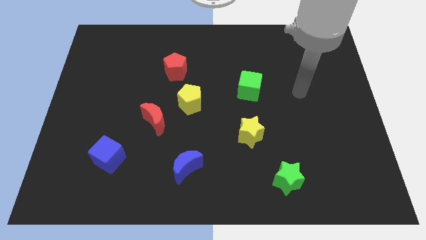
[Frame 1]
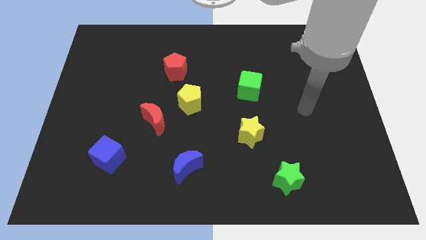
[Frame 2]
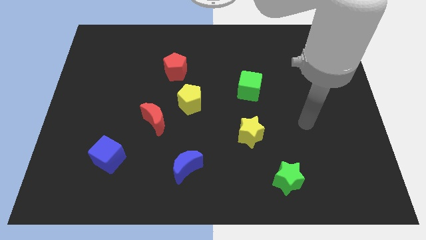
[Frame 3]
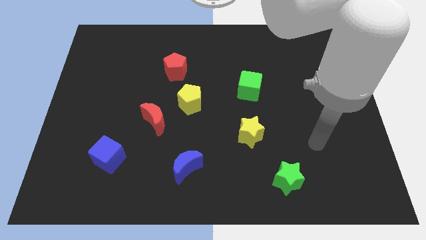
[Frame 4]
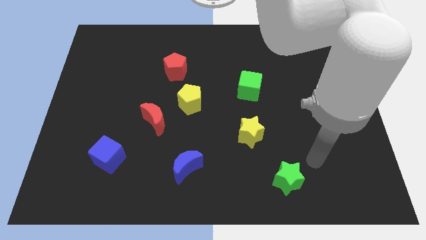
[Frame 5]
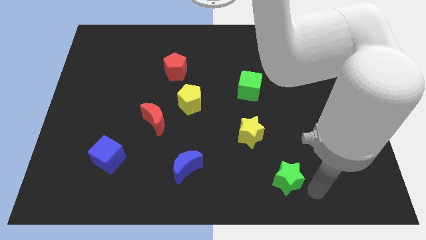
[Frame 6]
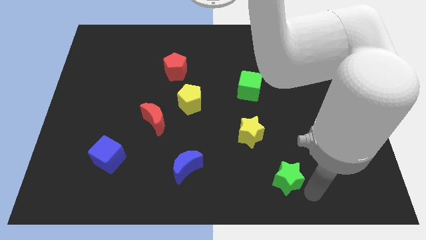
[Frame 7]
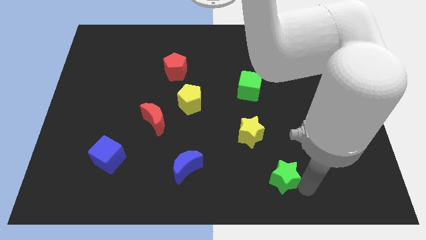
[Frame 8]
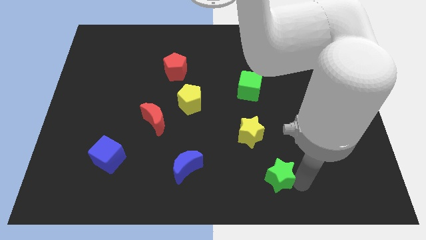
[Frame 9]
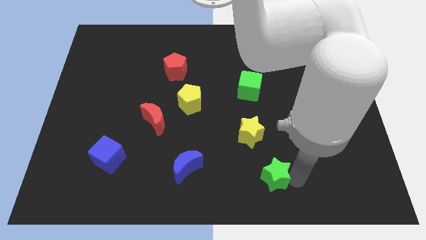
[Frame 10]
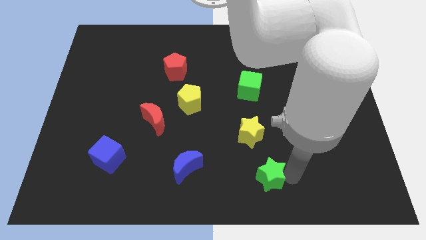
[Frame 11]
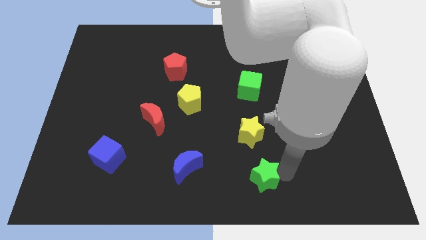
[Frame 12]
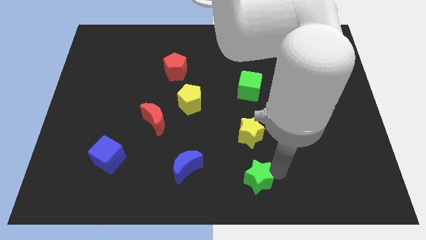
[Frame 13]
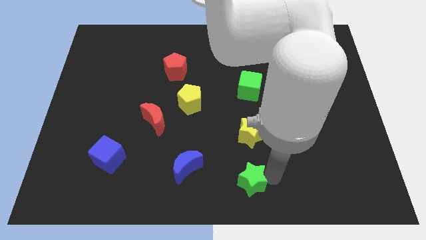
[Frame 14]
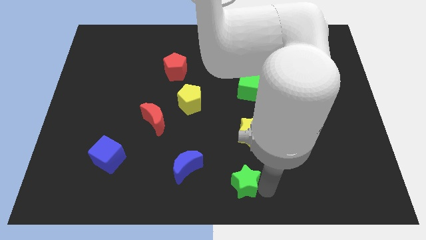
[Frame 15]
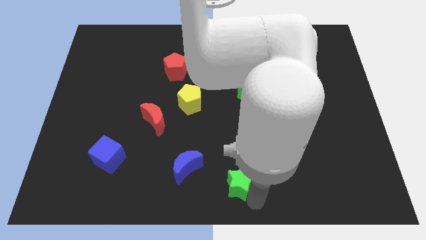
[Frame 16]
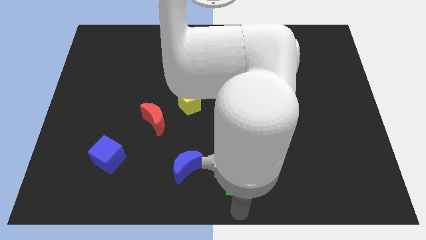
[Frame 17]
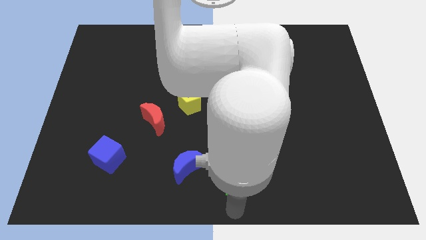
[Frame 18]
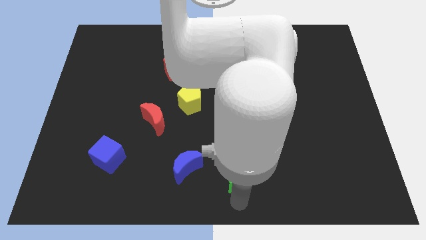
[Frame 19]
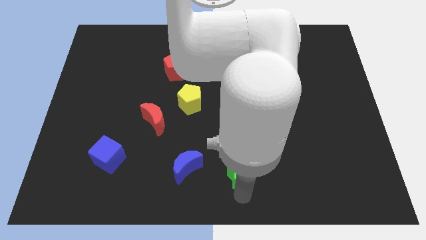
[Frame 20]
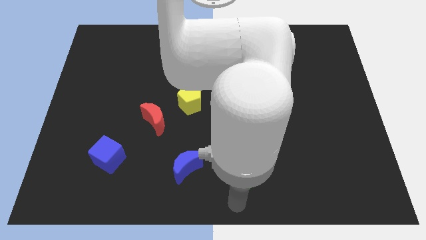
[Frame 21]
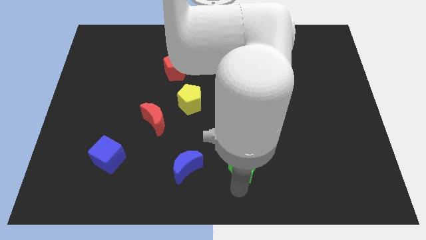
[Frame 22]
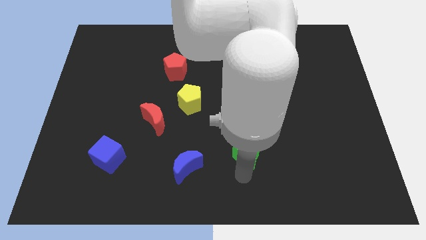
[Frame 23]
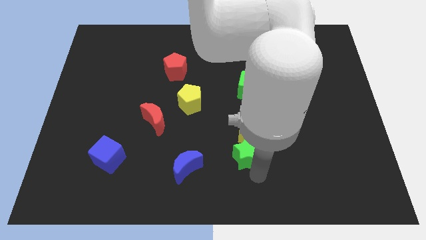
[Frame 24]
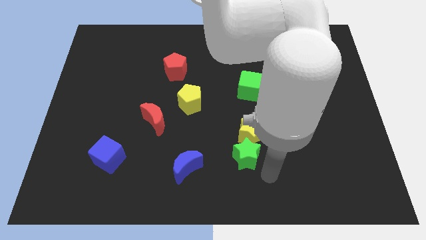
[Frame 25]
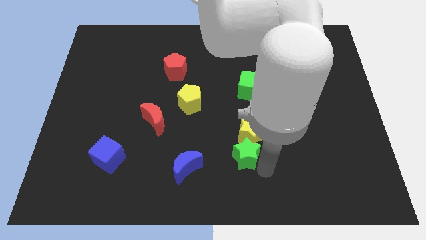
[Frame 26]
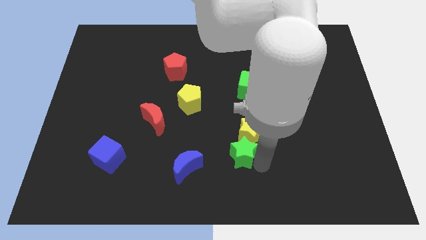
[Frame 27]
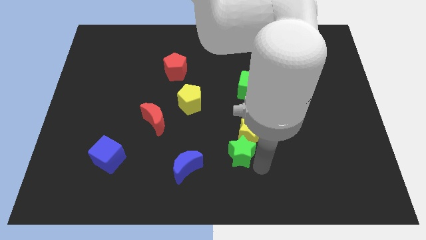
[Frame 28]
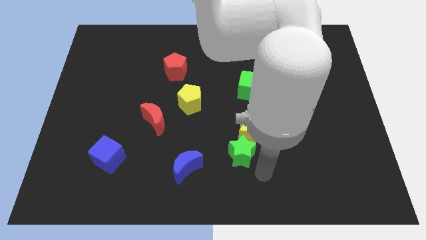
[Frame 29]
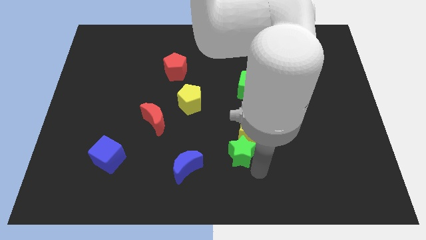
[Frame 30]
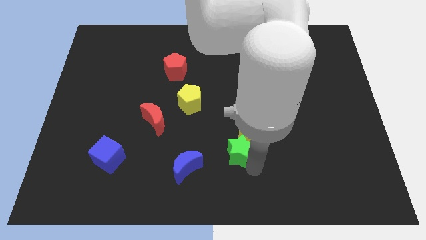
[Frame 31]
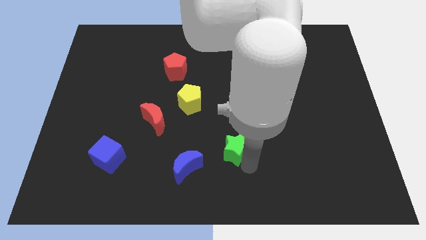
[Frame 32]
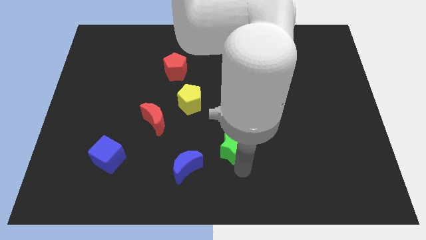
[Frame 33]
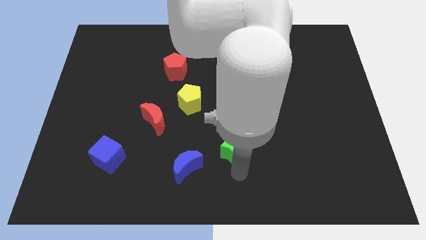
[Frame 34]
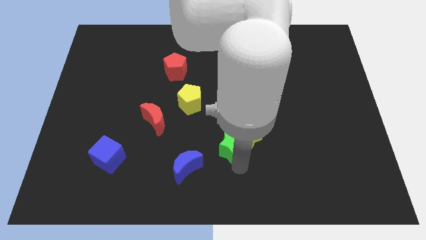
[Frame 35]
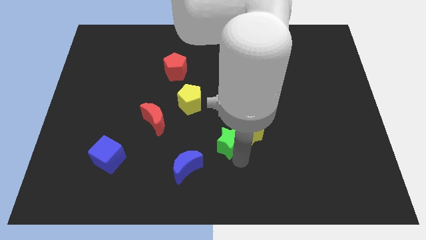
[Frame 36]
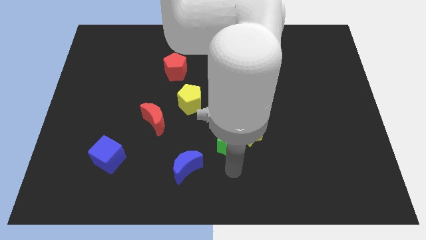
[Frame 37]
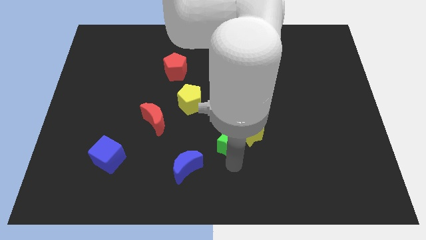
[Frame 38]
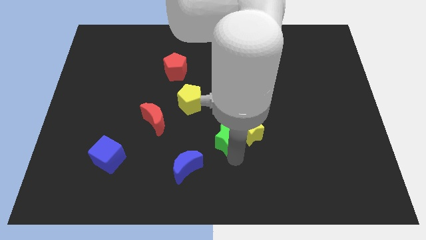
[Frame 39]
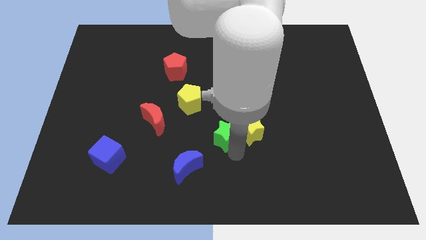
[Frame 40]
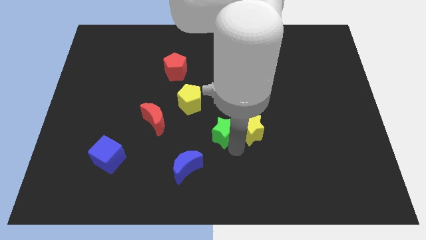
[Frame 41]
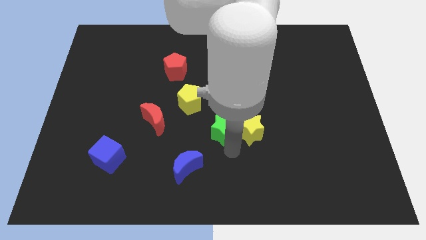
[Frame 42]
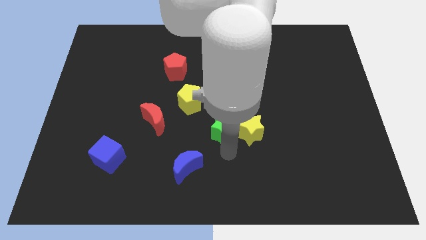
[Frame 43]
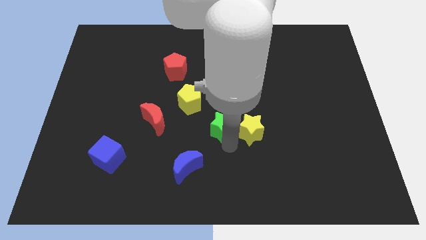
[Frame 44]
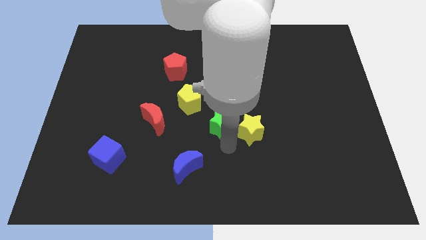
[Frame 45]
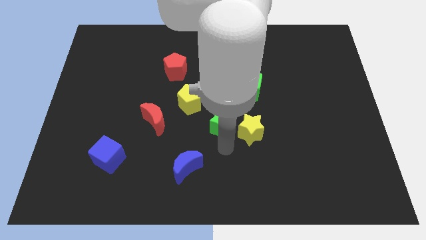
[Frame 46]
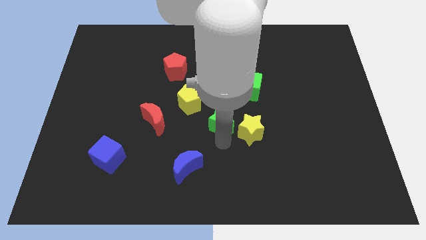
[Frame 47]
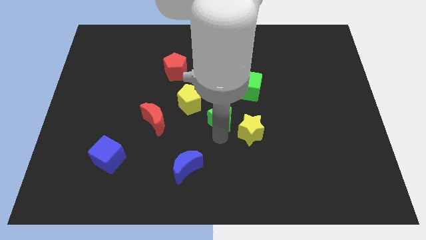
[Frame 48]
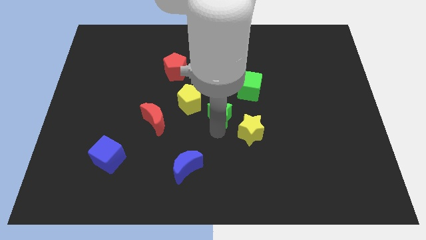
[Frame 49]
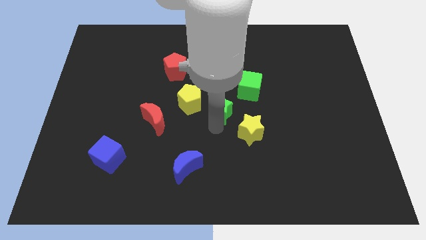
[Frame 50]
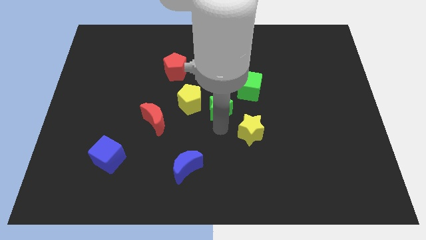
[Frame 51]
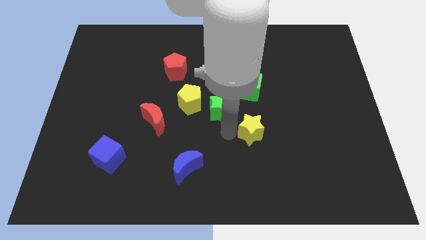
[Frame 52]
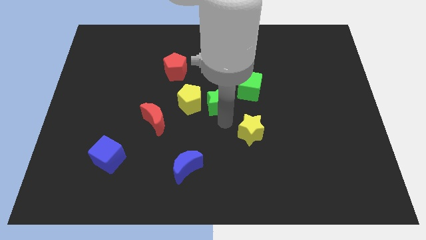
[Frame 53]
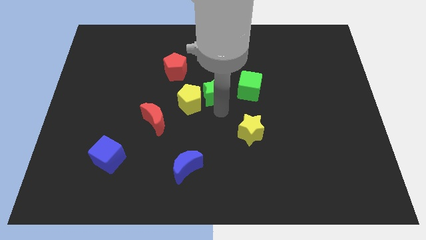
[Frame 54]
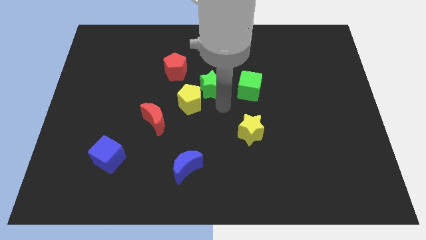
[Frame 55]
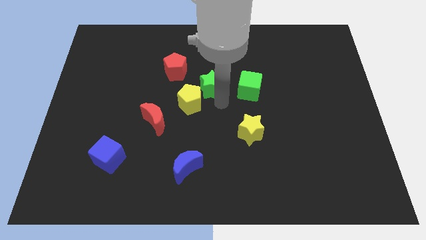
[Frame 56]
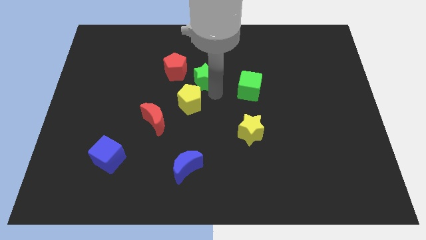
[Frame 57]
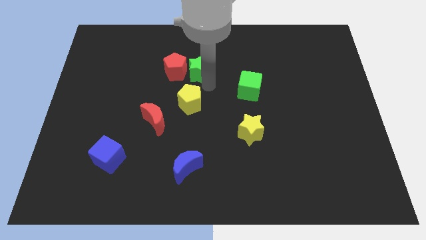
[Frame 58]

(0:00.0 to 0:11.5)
put the green star diagonally up and to the right of the red pentagon

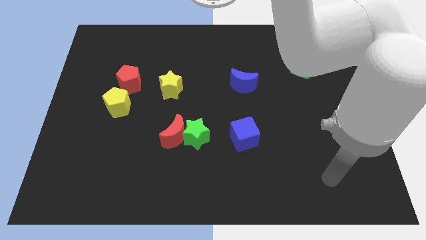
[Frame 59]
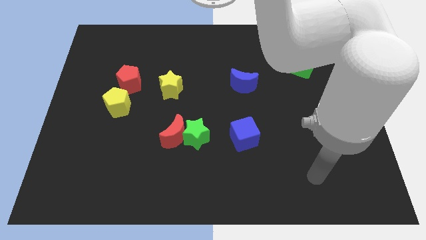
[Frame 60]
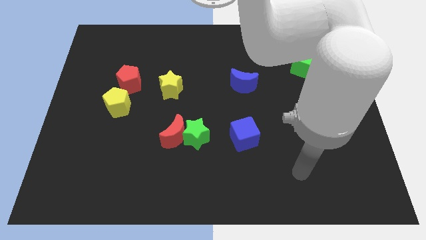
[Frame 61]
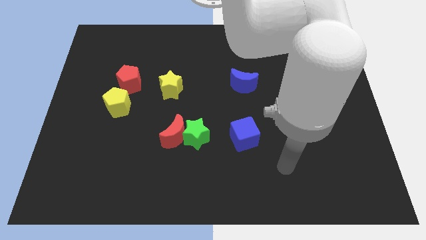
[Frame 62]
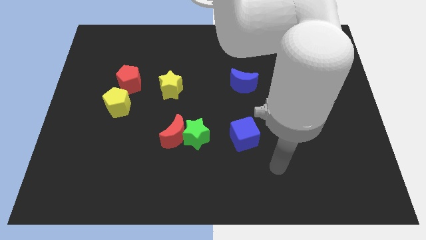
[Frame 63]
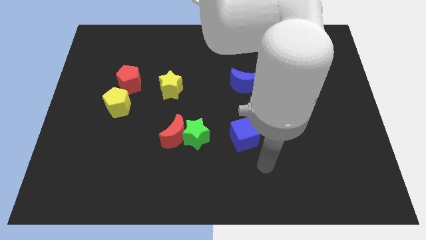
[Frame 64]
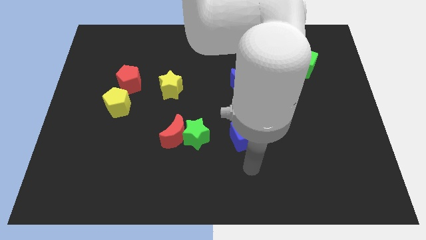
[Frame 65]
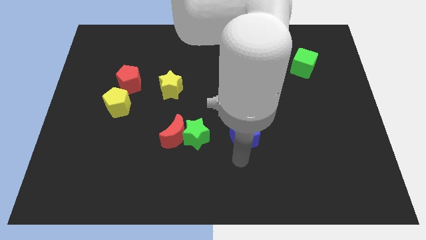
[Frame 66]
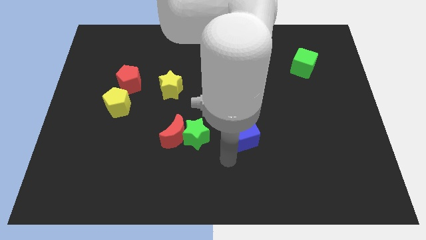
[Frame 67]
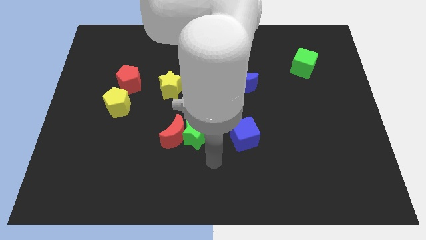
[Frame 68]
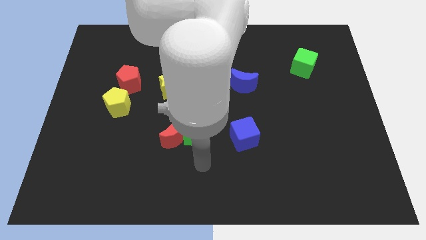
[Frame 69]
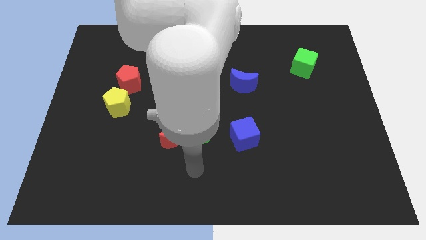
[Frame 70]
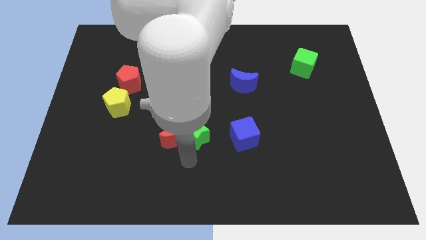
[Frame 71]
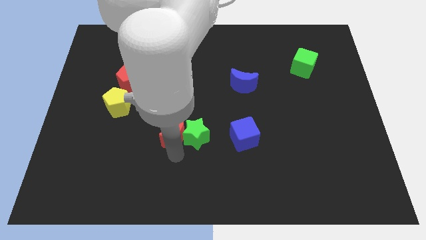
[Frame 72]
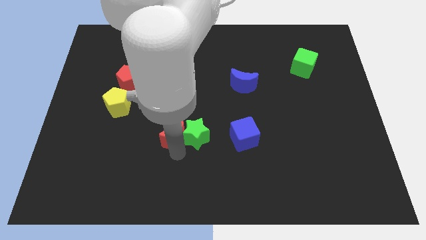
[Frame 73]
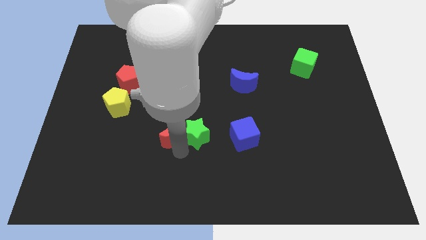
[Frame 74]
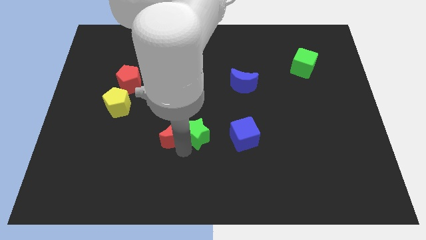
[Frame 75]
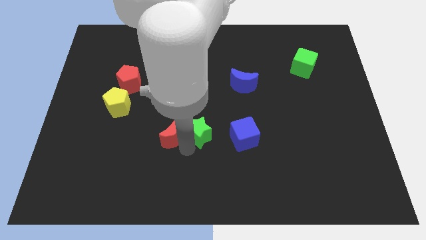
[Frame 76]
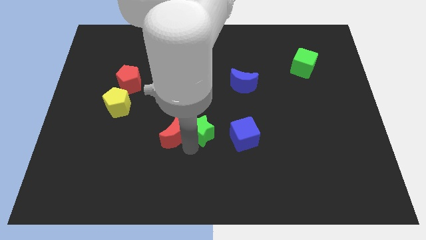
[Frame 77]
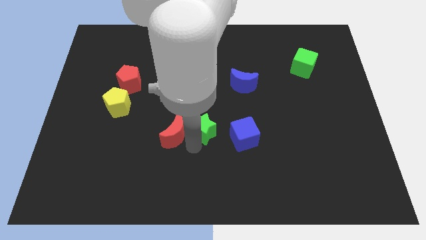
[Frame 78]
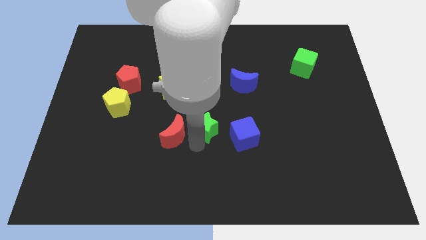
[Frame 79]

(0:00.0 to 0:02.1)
push the green star to the top left side of the blue cube
